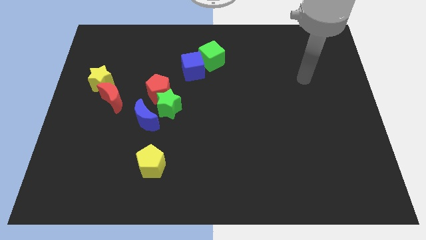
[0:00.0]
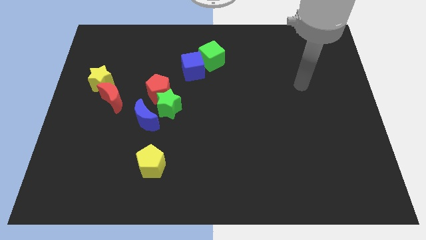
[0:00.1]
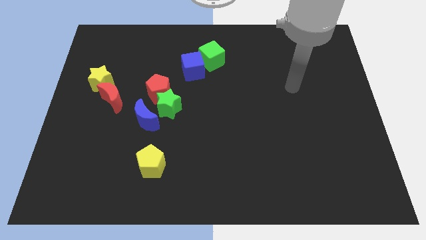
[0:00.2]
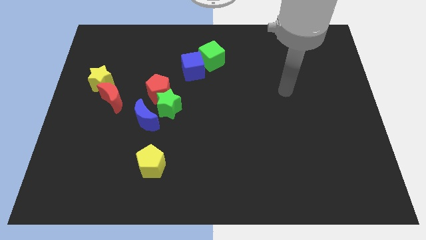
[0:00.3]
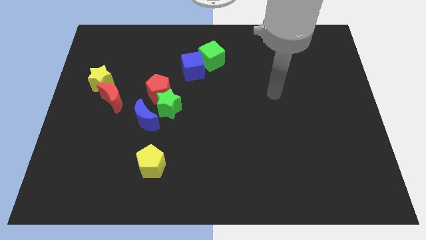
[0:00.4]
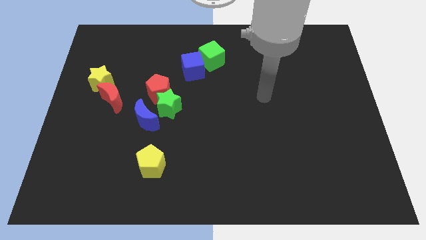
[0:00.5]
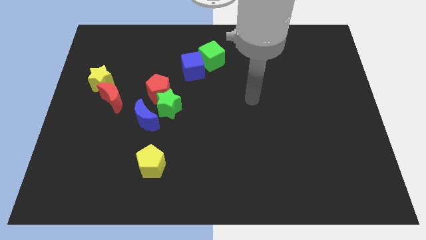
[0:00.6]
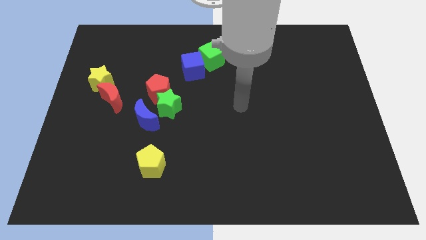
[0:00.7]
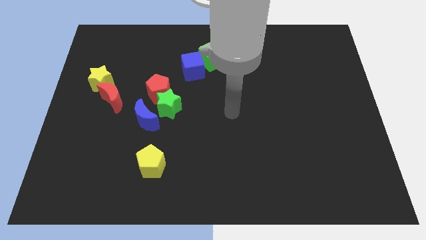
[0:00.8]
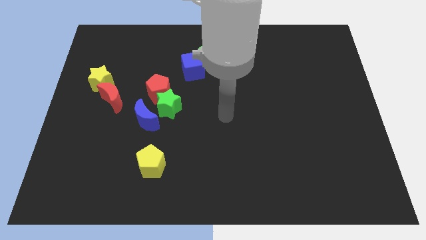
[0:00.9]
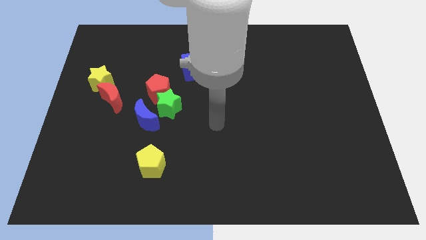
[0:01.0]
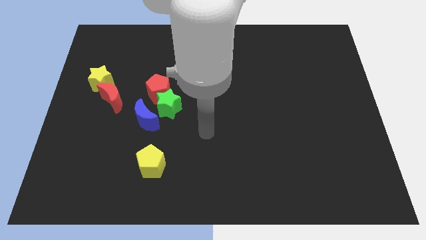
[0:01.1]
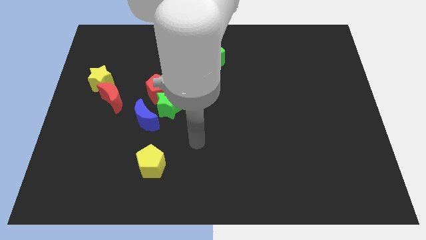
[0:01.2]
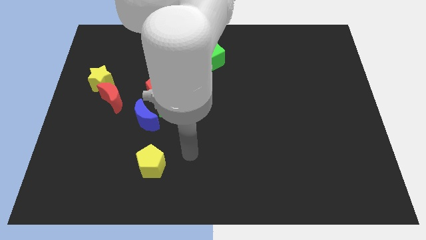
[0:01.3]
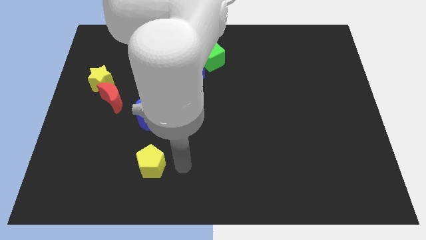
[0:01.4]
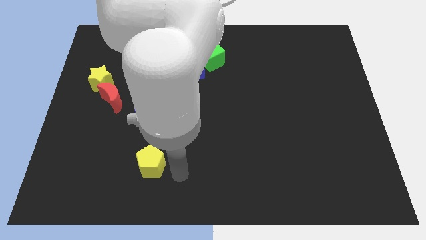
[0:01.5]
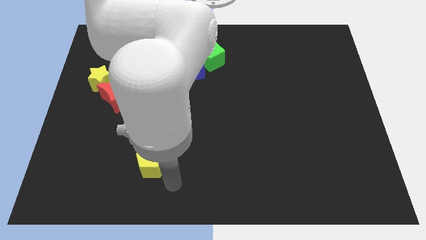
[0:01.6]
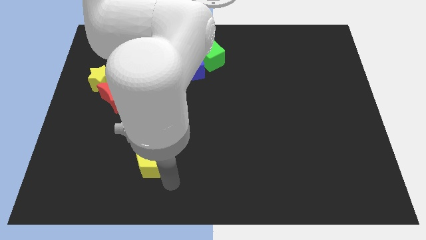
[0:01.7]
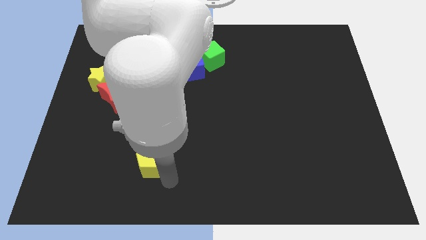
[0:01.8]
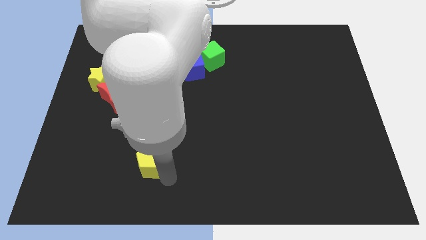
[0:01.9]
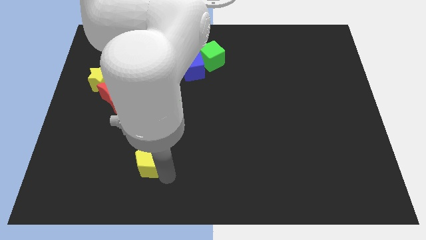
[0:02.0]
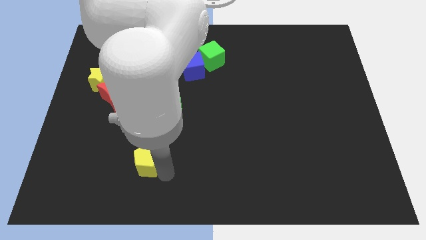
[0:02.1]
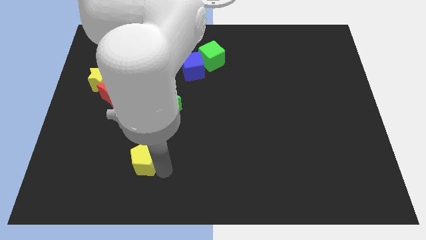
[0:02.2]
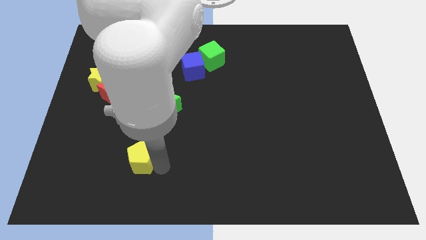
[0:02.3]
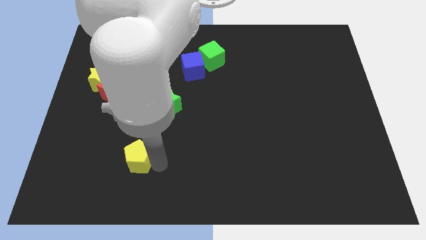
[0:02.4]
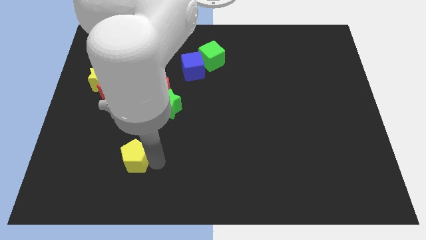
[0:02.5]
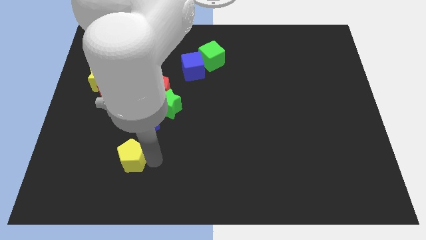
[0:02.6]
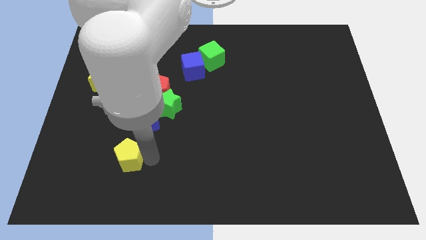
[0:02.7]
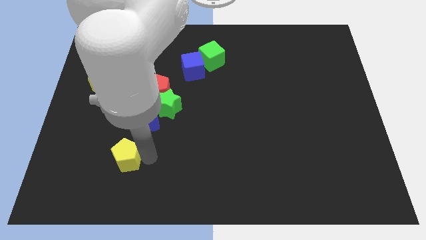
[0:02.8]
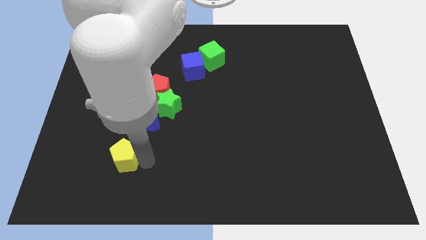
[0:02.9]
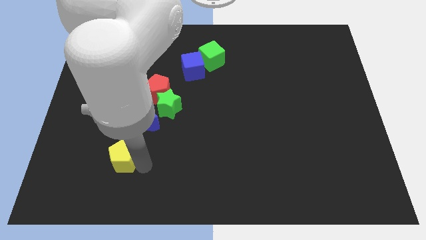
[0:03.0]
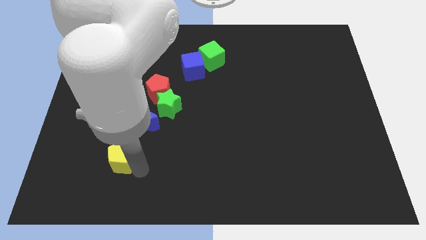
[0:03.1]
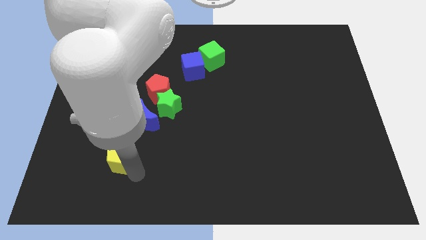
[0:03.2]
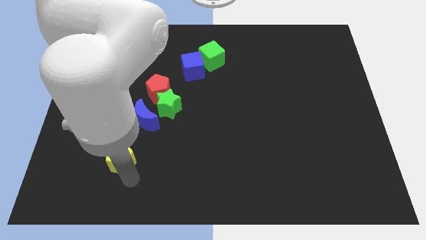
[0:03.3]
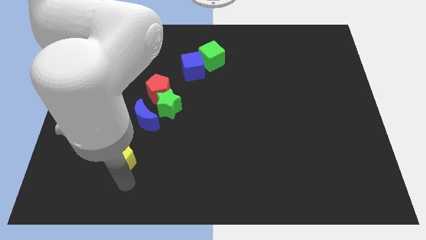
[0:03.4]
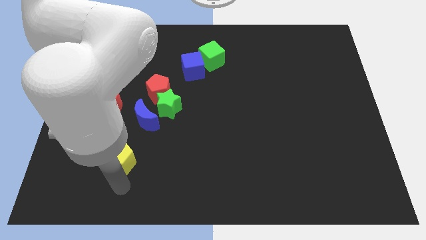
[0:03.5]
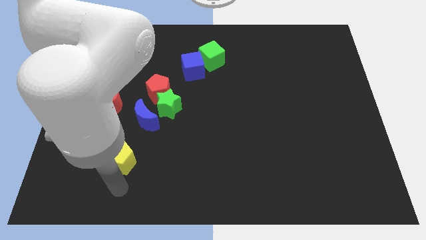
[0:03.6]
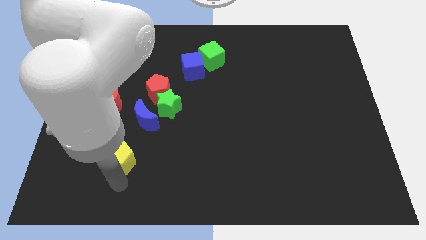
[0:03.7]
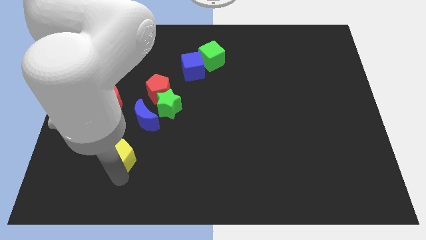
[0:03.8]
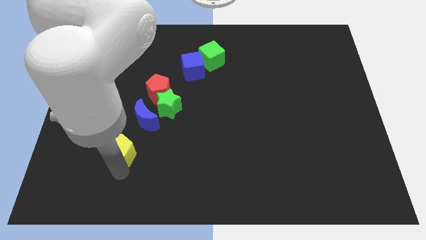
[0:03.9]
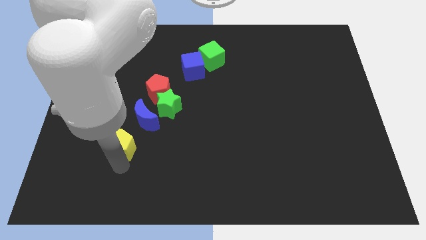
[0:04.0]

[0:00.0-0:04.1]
move the yellow pentagon slightly up and left diagonally

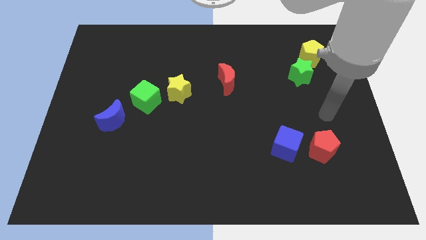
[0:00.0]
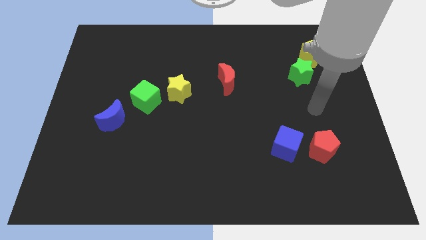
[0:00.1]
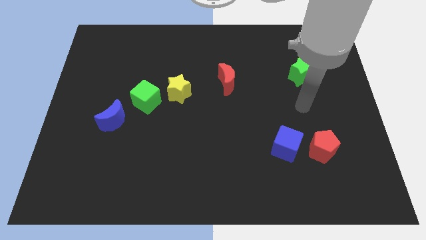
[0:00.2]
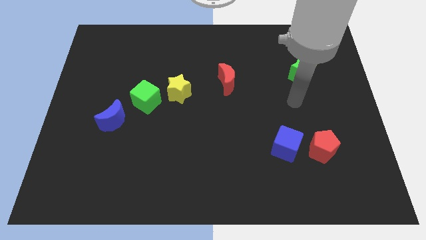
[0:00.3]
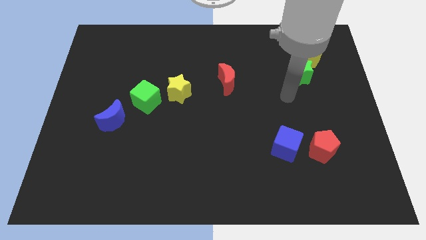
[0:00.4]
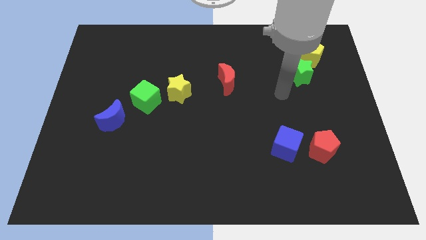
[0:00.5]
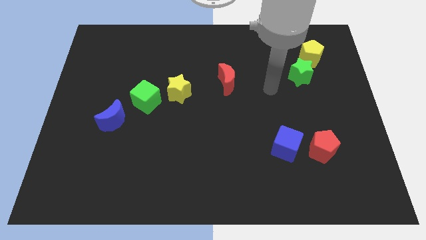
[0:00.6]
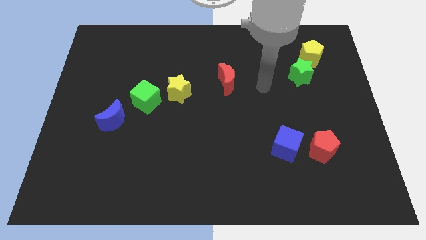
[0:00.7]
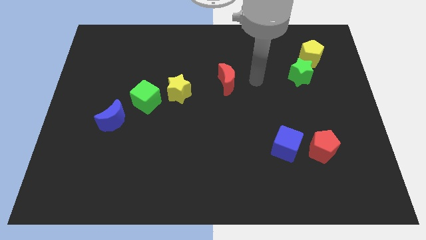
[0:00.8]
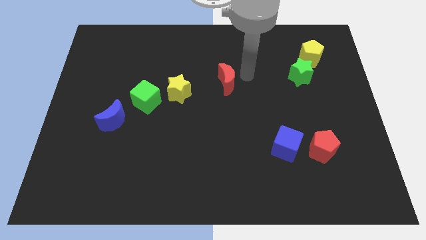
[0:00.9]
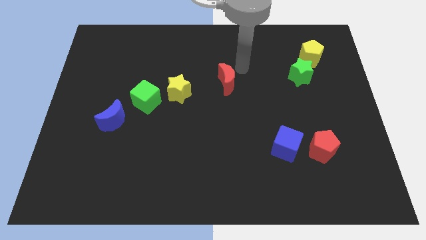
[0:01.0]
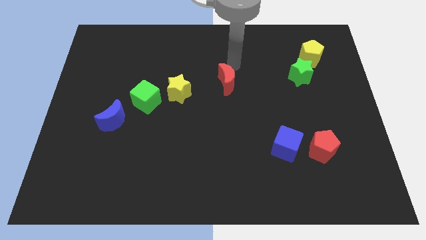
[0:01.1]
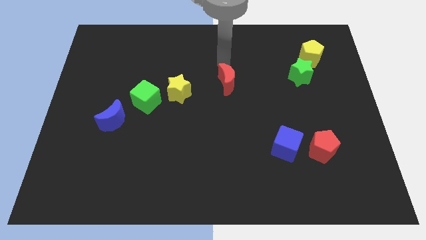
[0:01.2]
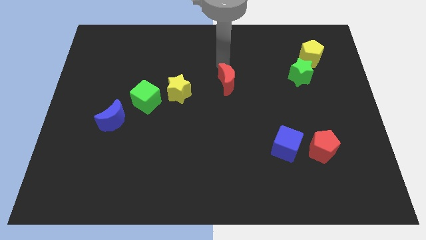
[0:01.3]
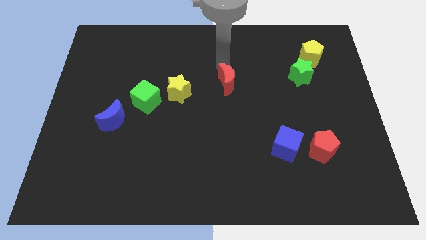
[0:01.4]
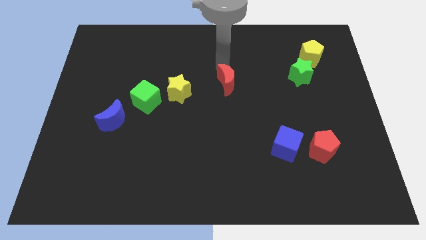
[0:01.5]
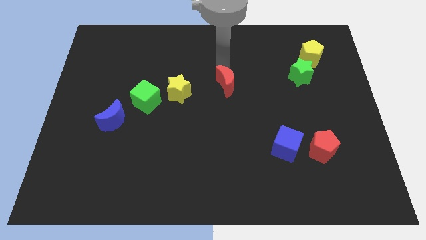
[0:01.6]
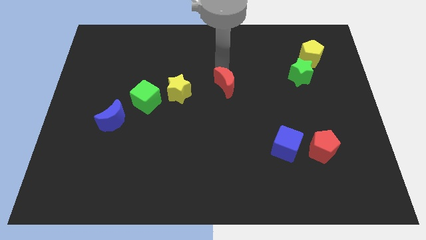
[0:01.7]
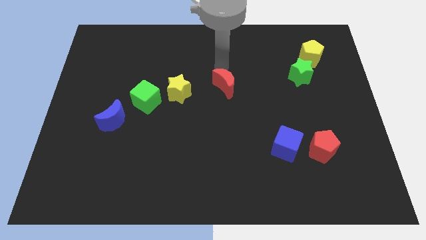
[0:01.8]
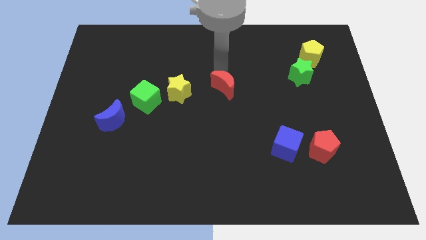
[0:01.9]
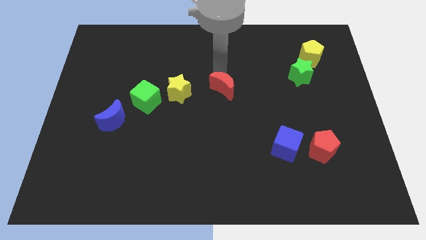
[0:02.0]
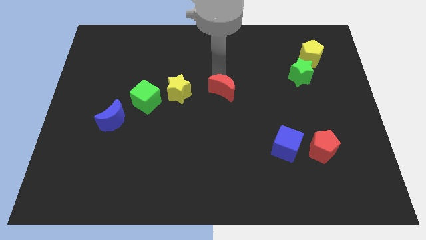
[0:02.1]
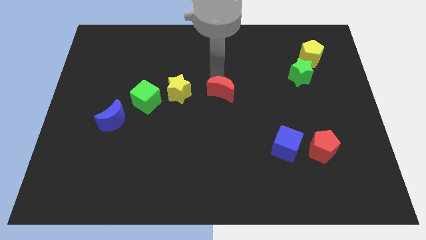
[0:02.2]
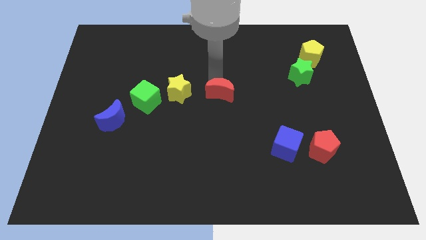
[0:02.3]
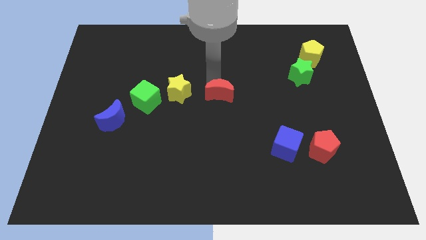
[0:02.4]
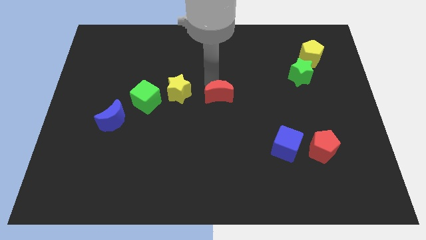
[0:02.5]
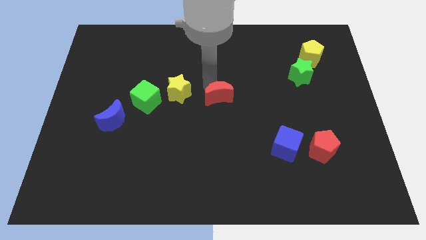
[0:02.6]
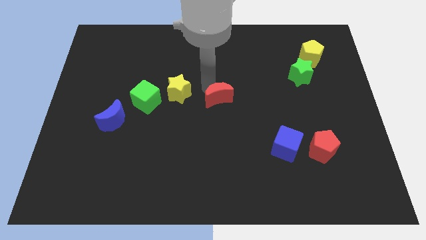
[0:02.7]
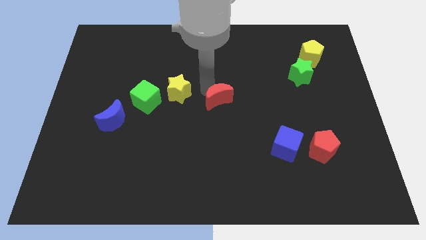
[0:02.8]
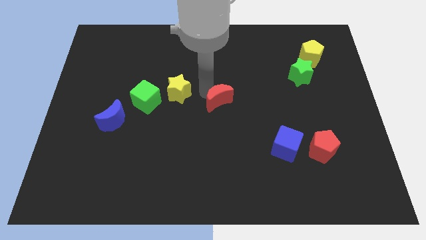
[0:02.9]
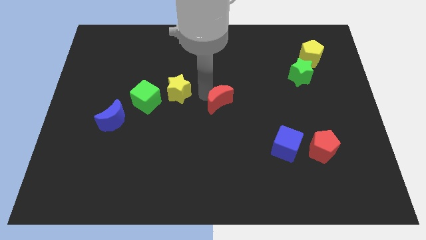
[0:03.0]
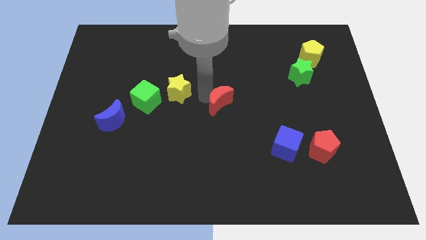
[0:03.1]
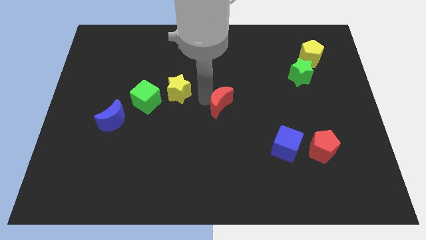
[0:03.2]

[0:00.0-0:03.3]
slightly slide the red moon down

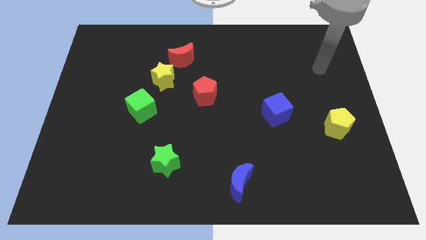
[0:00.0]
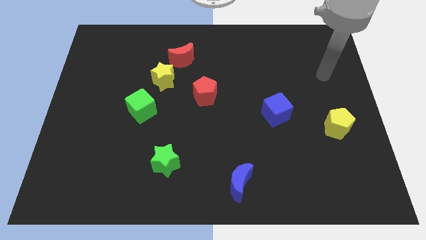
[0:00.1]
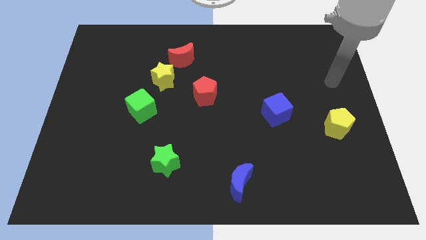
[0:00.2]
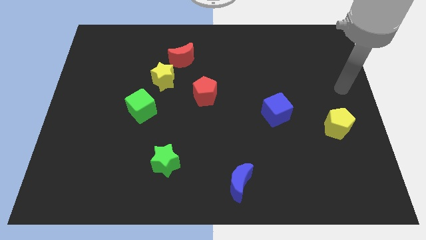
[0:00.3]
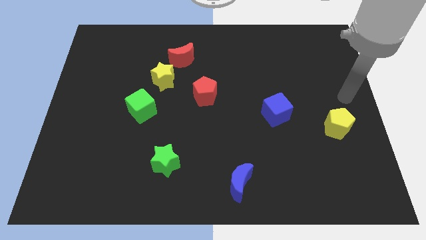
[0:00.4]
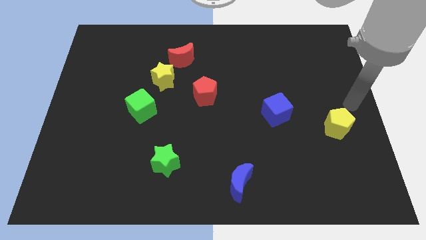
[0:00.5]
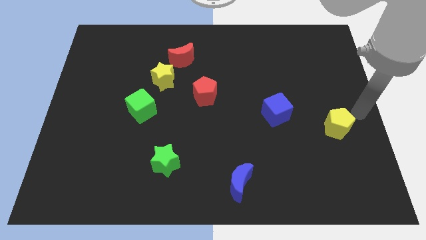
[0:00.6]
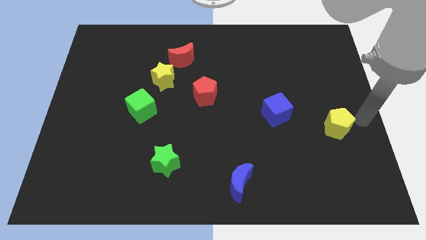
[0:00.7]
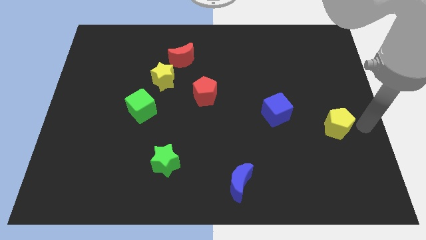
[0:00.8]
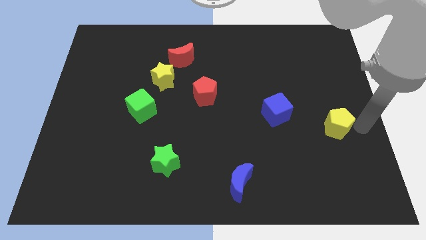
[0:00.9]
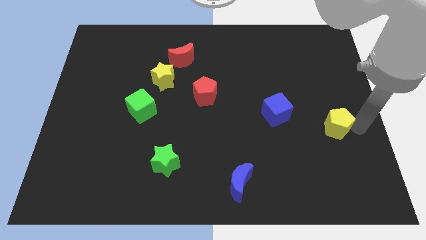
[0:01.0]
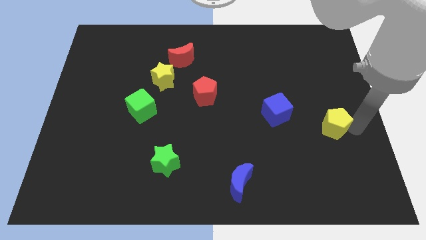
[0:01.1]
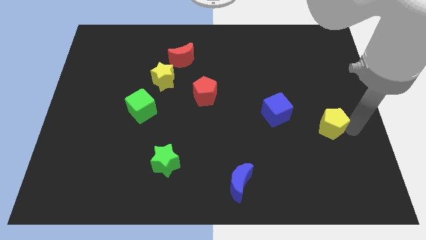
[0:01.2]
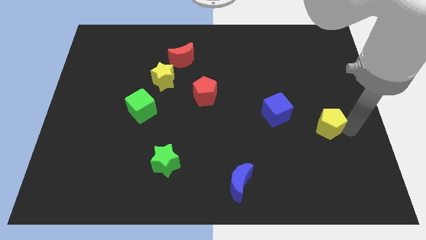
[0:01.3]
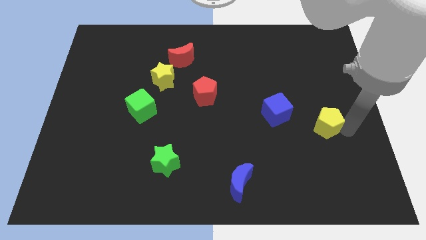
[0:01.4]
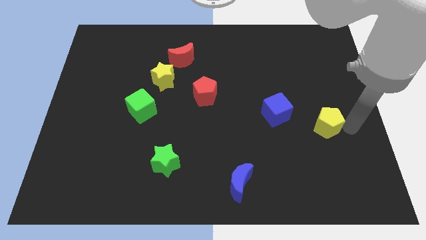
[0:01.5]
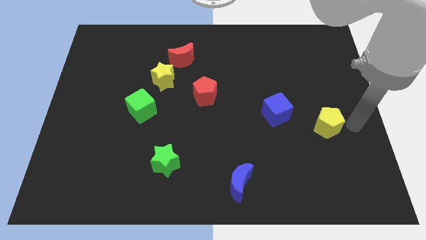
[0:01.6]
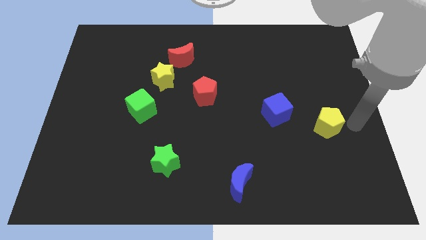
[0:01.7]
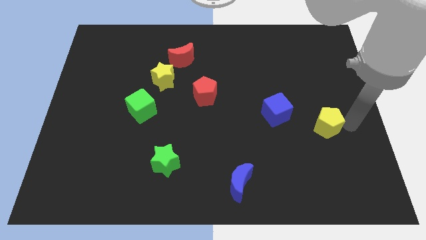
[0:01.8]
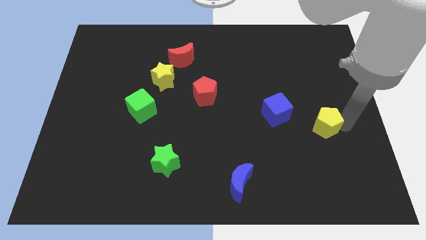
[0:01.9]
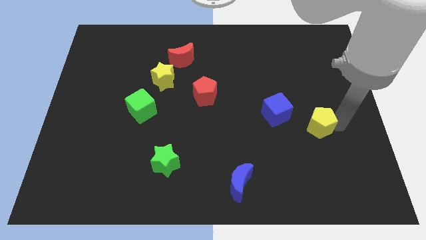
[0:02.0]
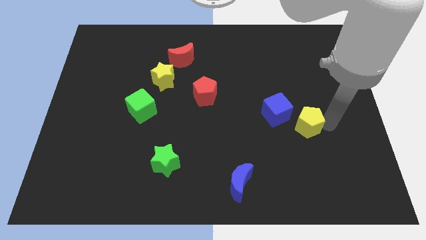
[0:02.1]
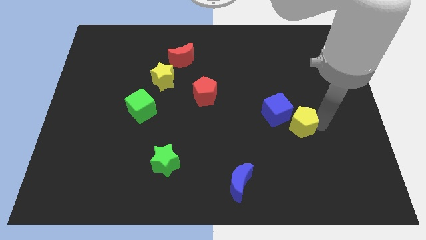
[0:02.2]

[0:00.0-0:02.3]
slide the yellow pentagon to the left a little
